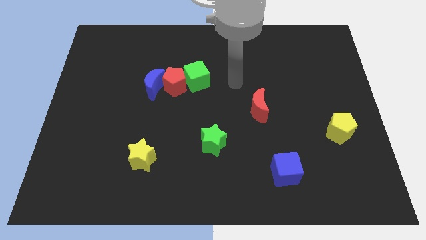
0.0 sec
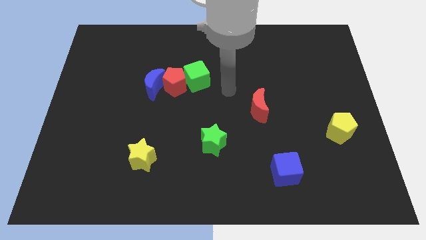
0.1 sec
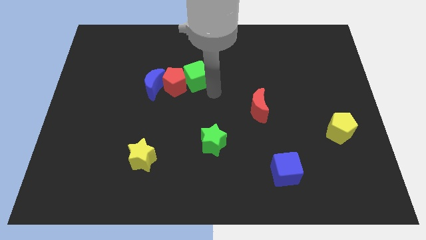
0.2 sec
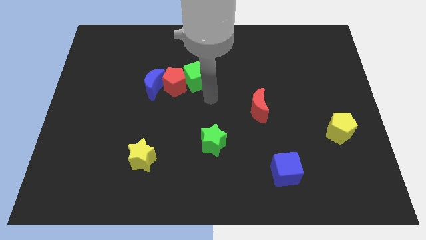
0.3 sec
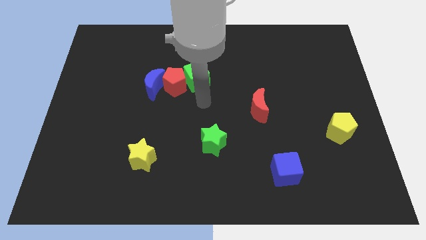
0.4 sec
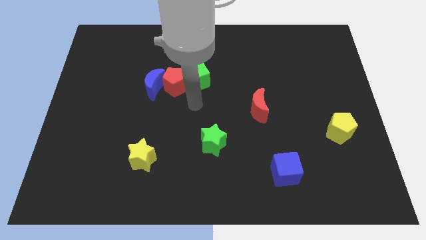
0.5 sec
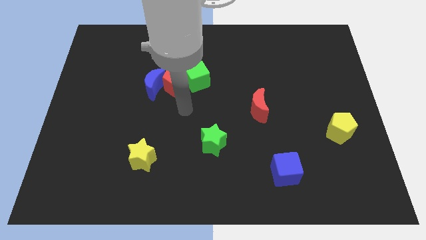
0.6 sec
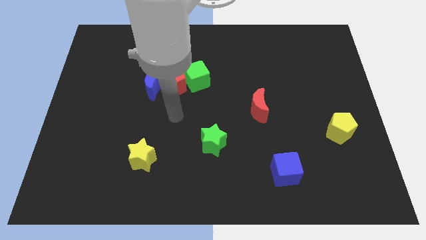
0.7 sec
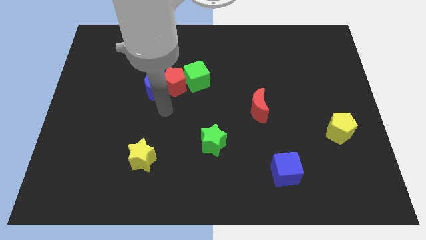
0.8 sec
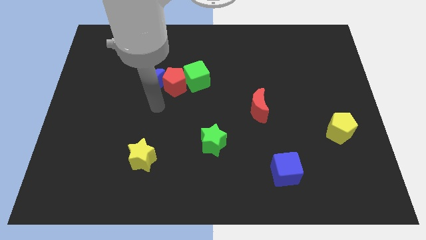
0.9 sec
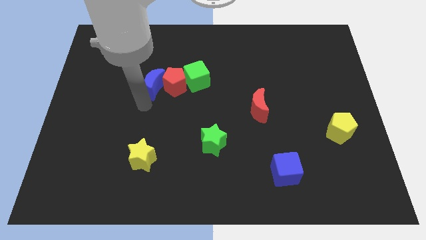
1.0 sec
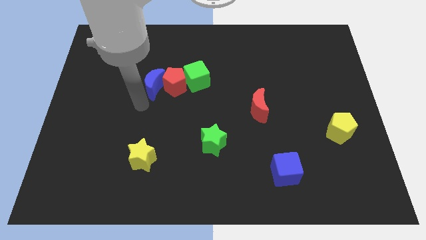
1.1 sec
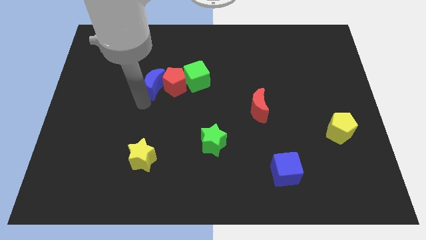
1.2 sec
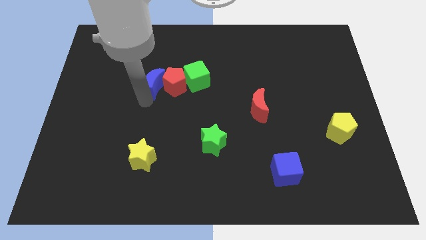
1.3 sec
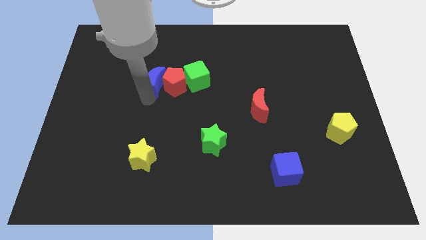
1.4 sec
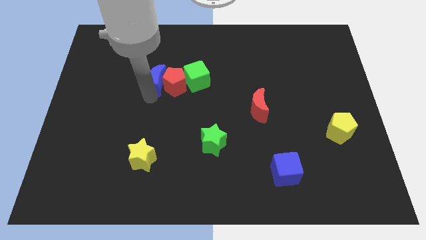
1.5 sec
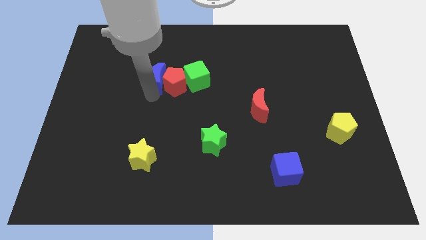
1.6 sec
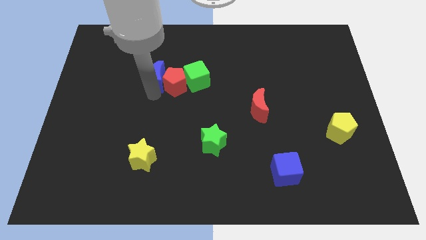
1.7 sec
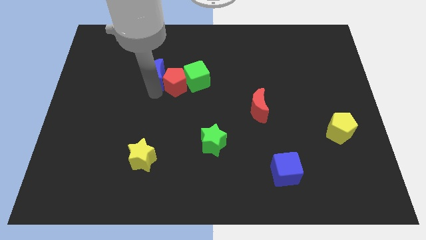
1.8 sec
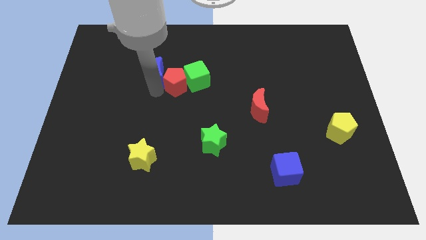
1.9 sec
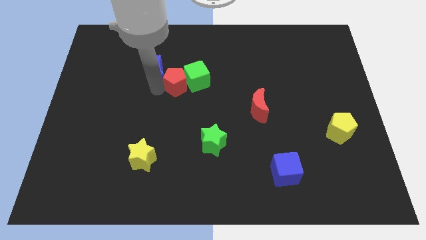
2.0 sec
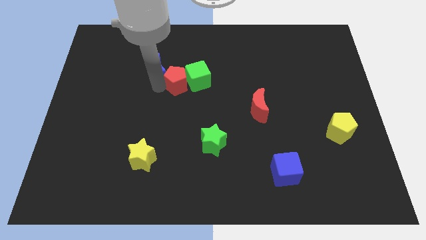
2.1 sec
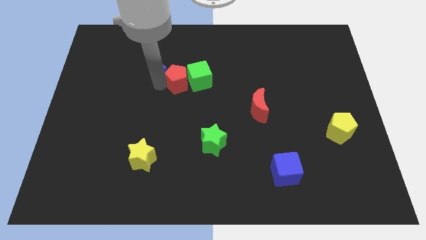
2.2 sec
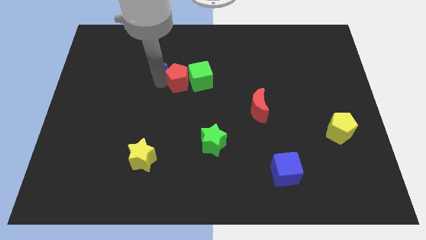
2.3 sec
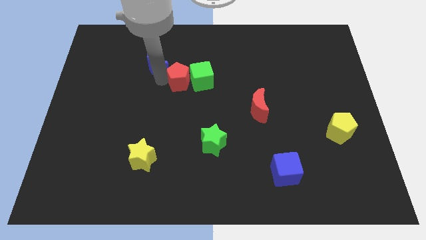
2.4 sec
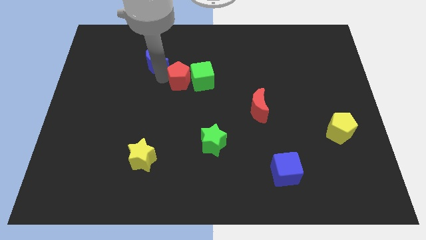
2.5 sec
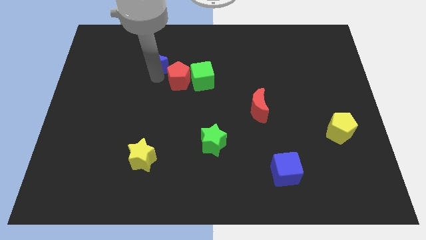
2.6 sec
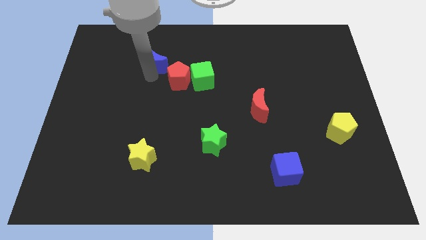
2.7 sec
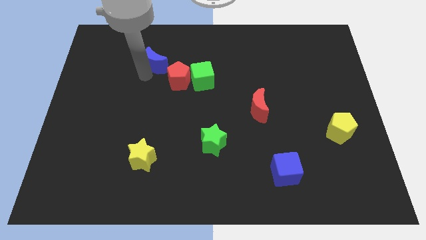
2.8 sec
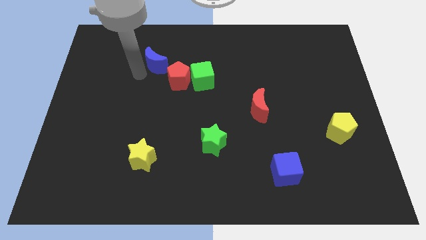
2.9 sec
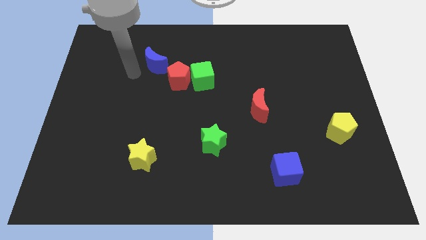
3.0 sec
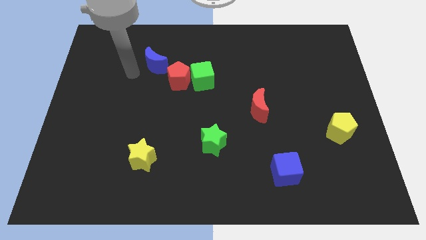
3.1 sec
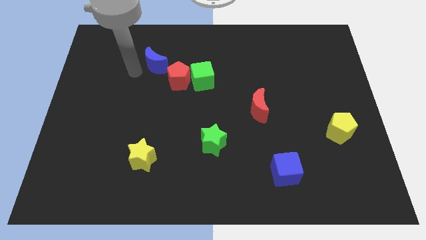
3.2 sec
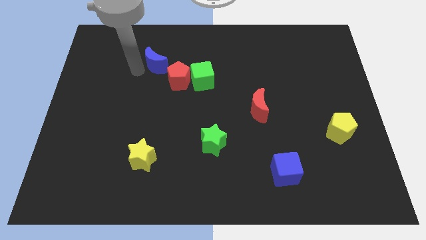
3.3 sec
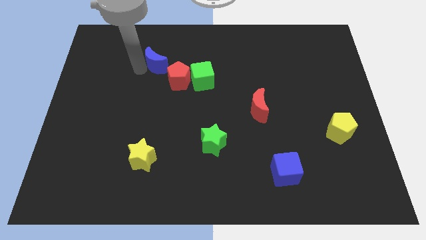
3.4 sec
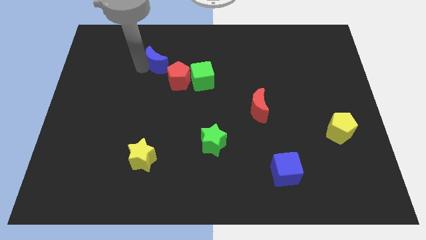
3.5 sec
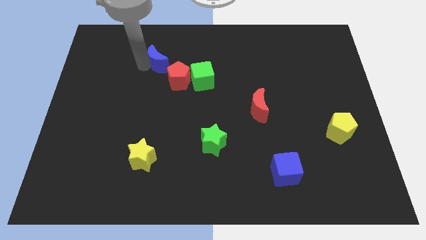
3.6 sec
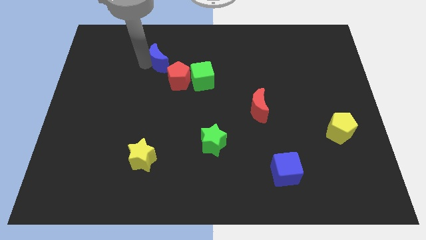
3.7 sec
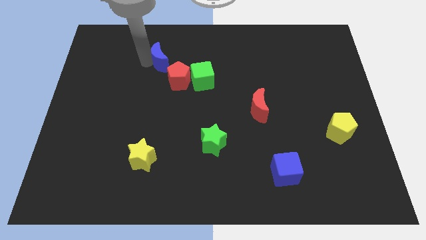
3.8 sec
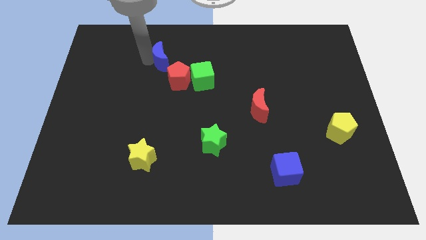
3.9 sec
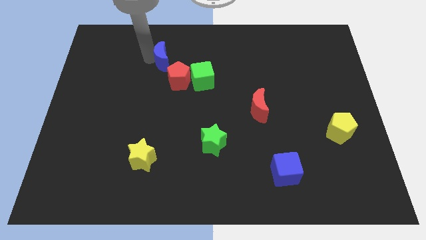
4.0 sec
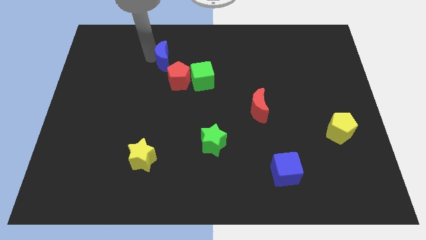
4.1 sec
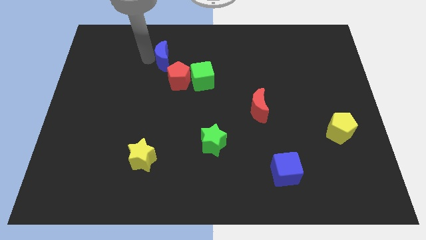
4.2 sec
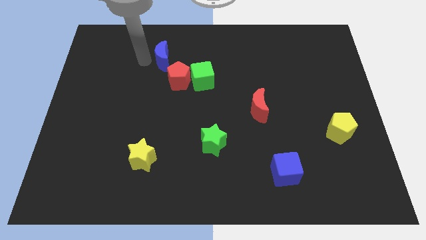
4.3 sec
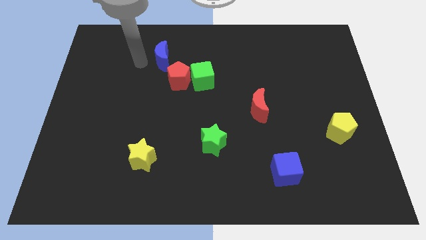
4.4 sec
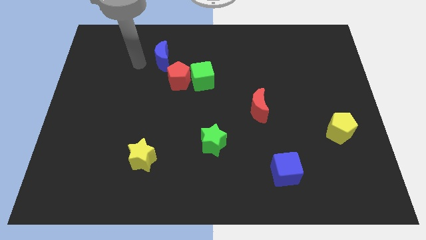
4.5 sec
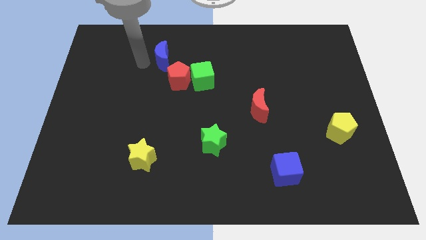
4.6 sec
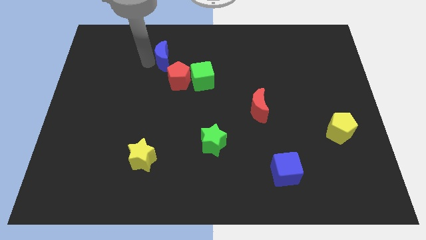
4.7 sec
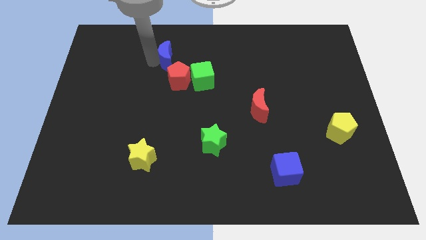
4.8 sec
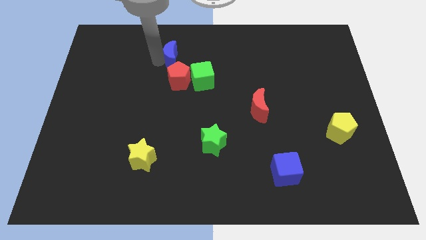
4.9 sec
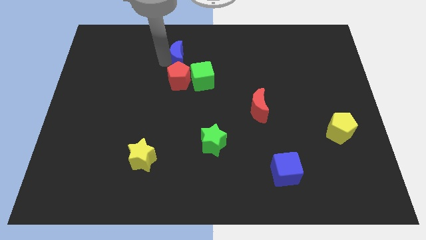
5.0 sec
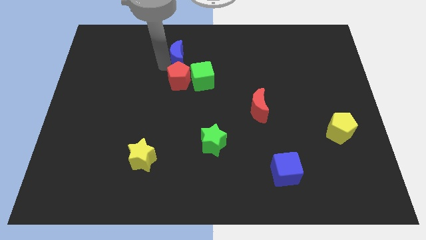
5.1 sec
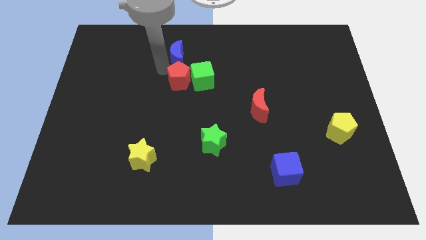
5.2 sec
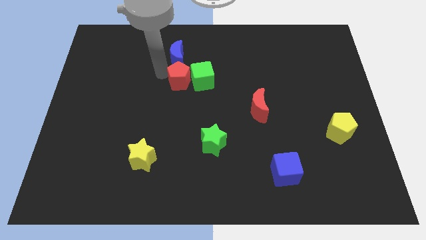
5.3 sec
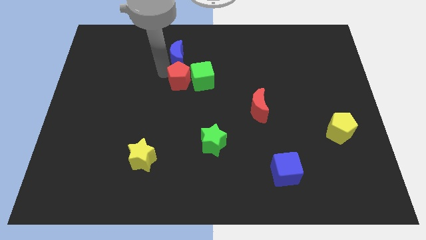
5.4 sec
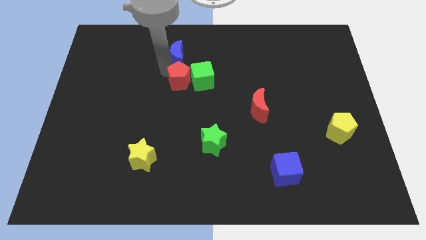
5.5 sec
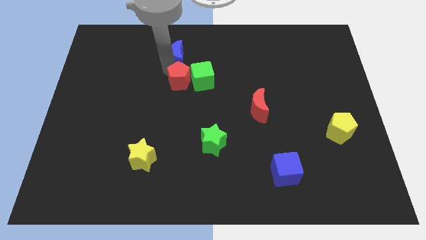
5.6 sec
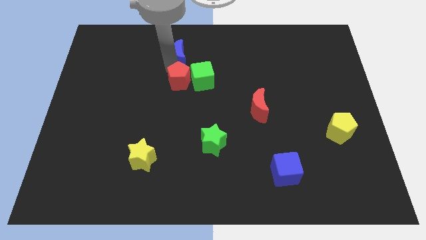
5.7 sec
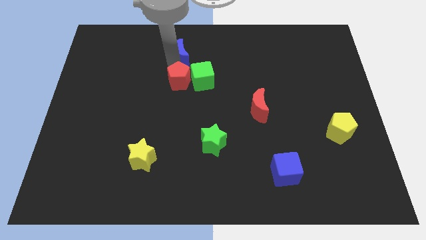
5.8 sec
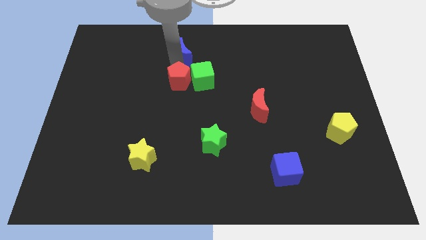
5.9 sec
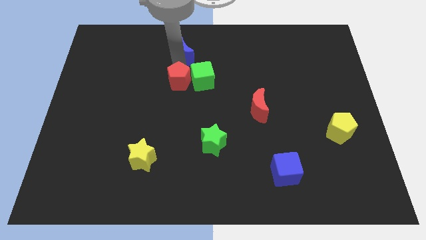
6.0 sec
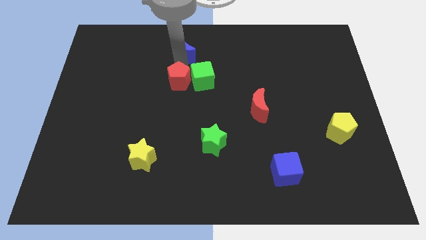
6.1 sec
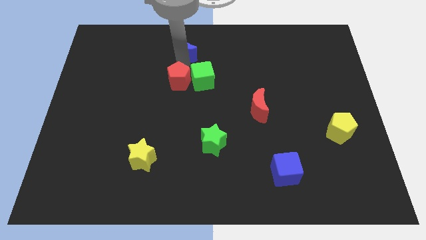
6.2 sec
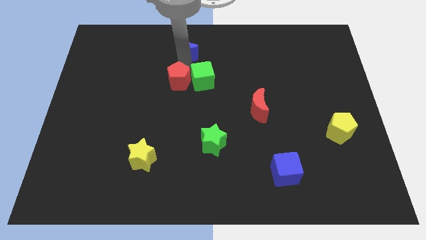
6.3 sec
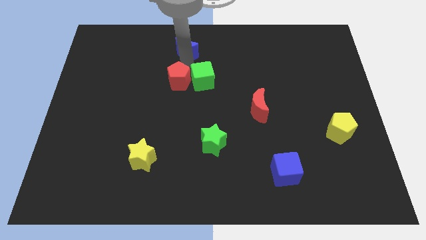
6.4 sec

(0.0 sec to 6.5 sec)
put the blue moon to the towards your base
